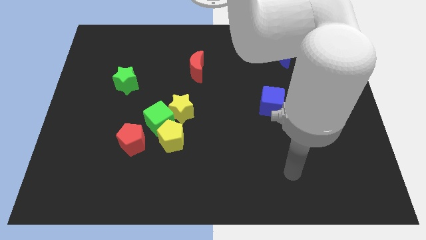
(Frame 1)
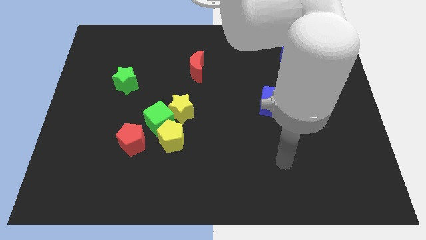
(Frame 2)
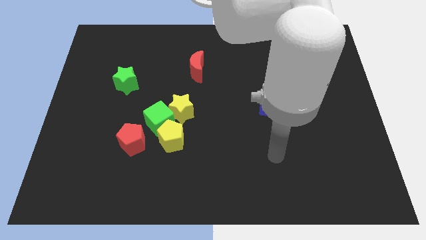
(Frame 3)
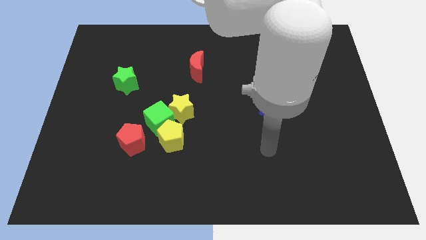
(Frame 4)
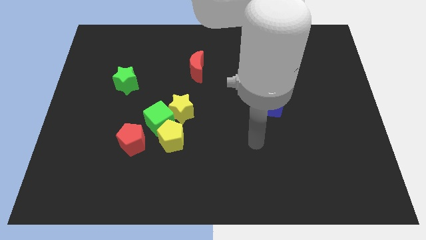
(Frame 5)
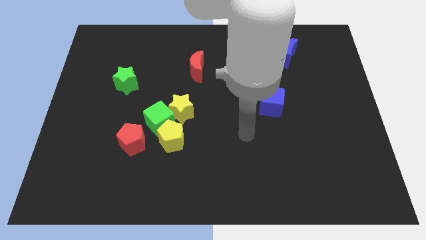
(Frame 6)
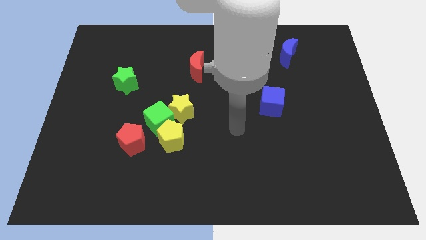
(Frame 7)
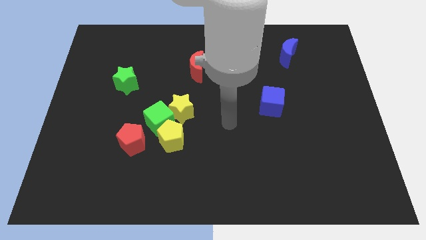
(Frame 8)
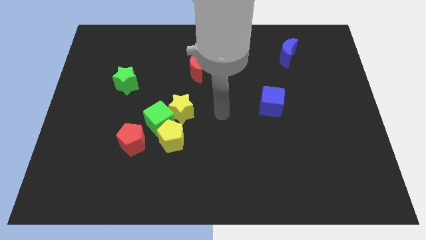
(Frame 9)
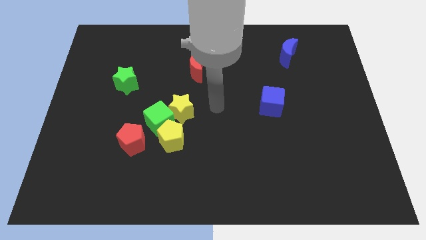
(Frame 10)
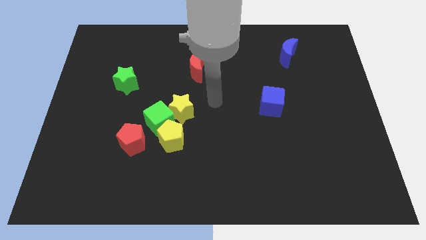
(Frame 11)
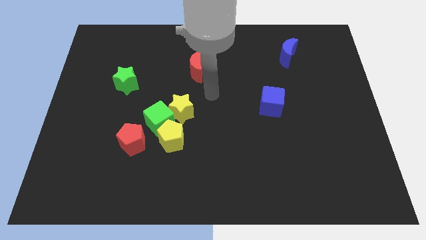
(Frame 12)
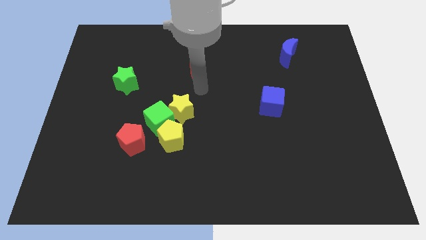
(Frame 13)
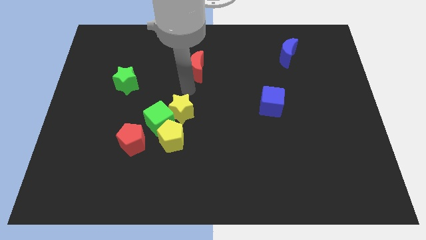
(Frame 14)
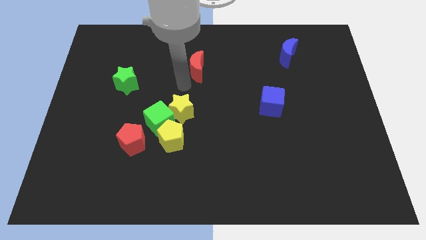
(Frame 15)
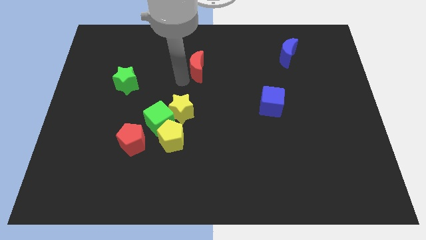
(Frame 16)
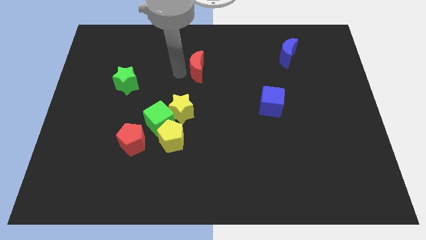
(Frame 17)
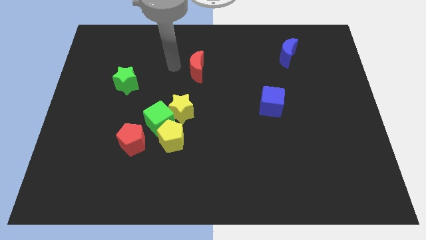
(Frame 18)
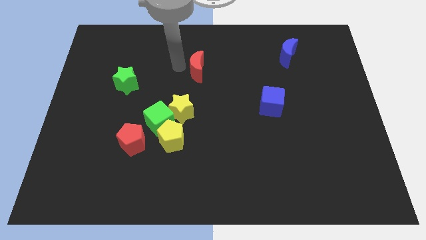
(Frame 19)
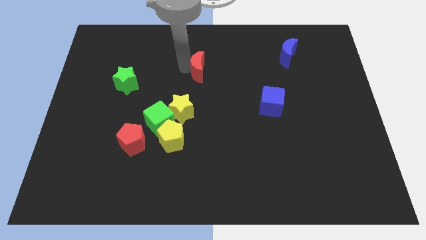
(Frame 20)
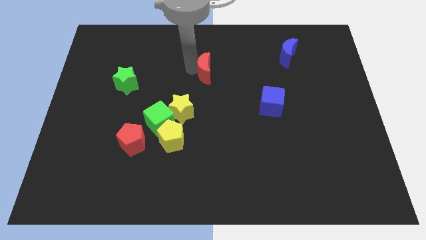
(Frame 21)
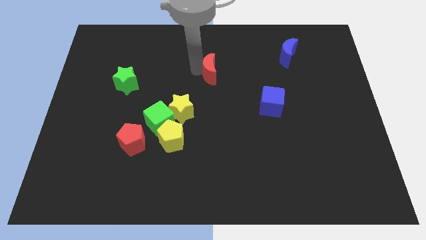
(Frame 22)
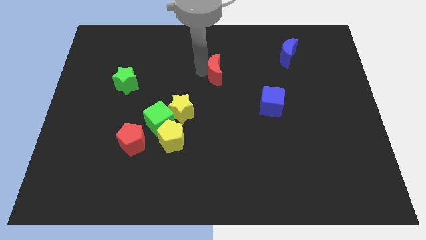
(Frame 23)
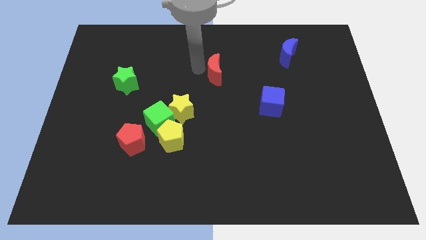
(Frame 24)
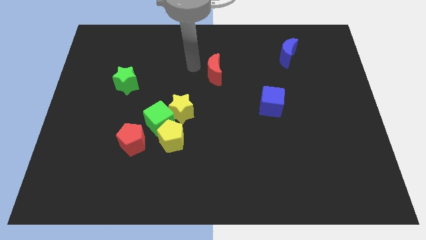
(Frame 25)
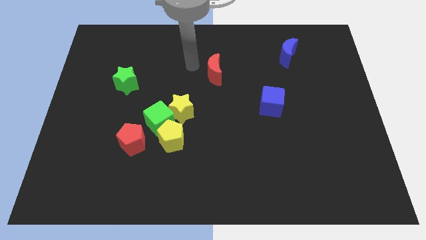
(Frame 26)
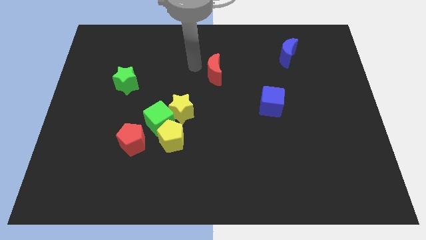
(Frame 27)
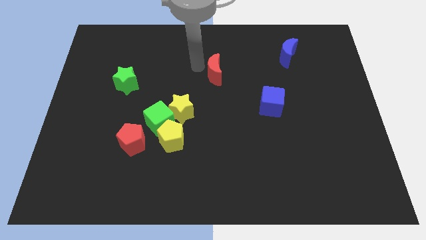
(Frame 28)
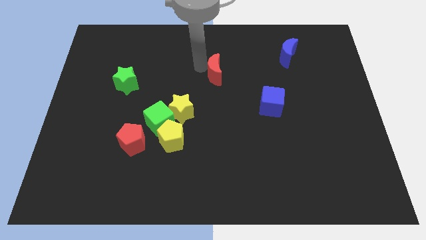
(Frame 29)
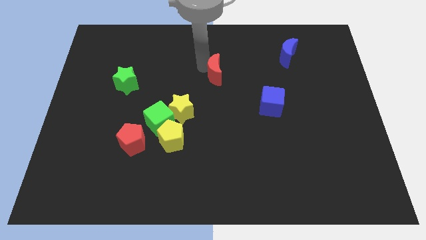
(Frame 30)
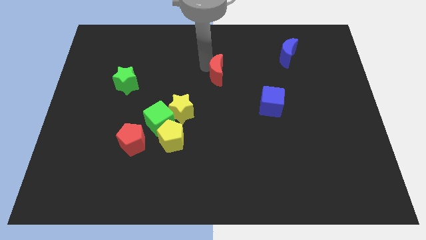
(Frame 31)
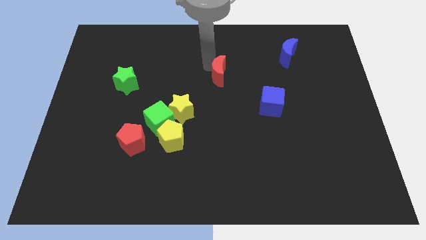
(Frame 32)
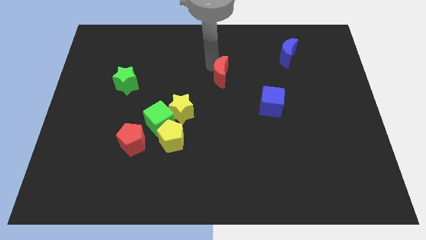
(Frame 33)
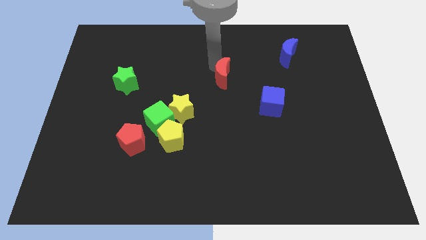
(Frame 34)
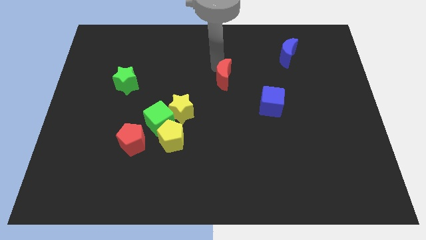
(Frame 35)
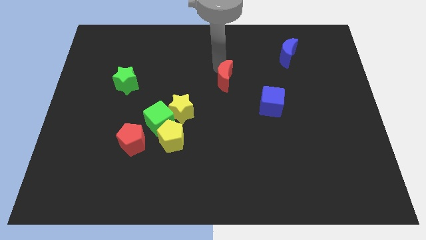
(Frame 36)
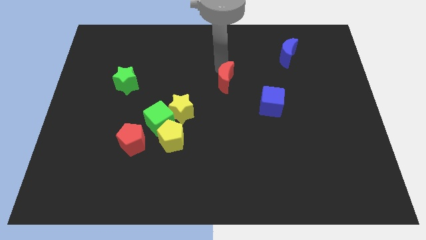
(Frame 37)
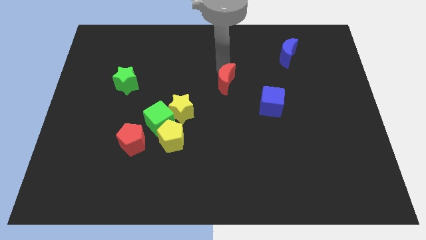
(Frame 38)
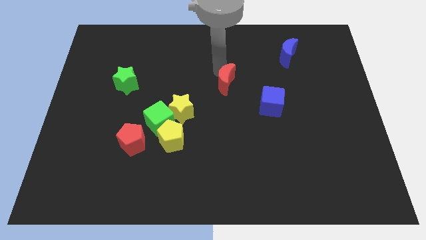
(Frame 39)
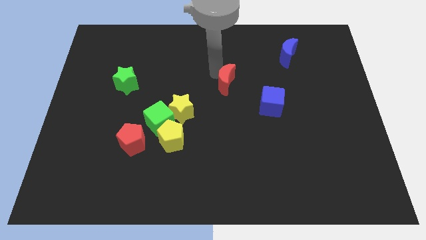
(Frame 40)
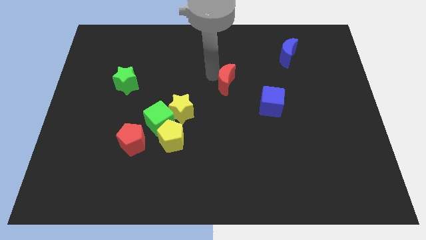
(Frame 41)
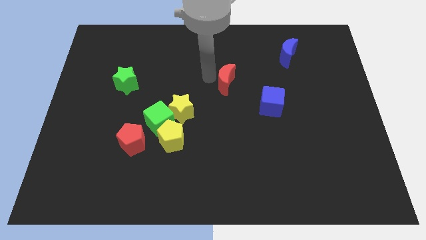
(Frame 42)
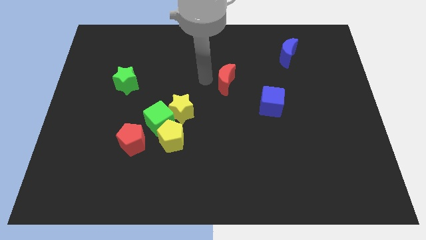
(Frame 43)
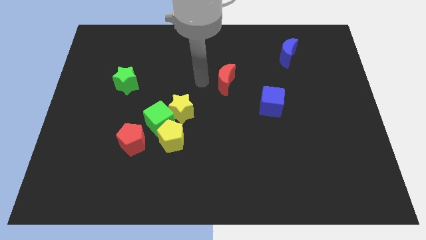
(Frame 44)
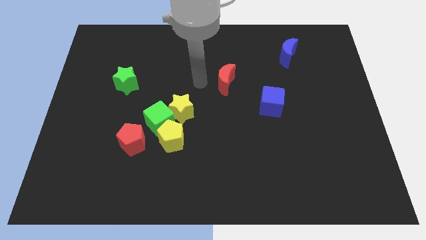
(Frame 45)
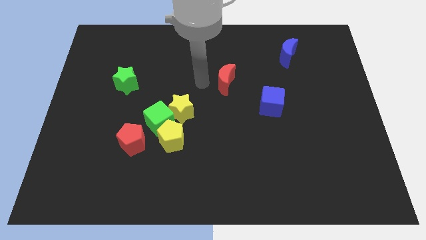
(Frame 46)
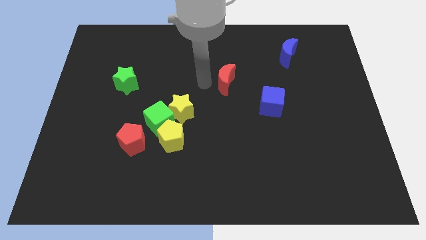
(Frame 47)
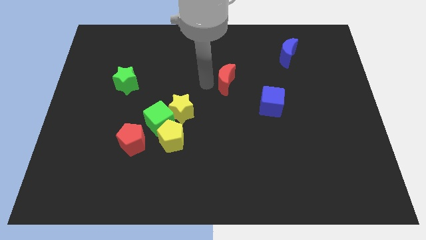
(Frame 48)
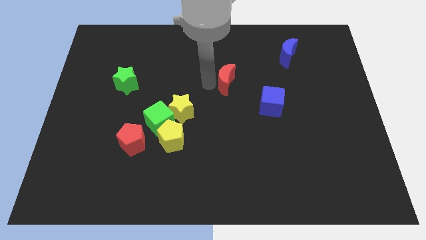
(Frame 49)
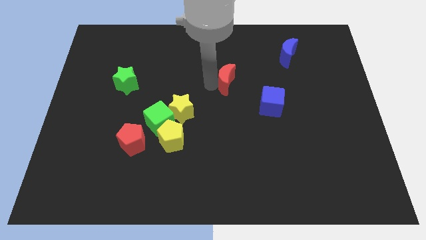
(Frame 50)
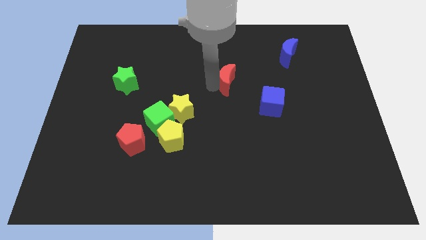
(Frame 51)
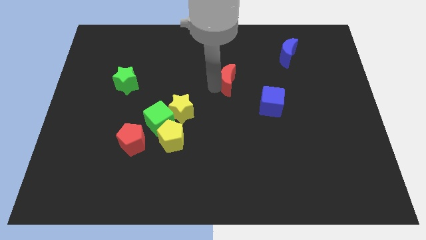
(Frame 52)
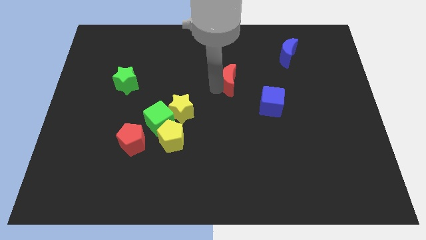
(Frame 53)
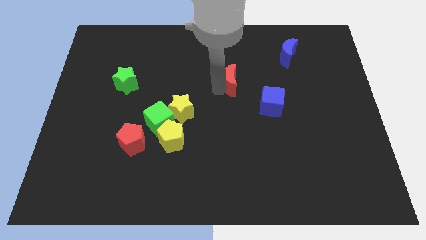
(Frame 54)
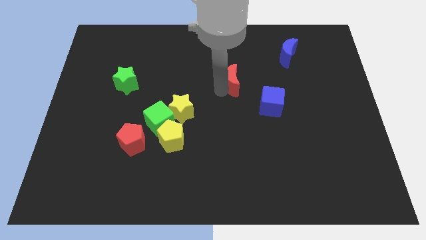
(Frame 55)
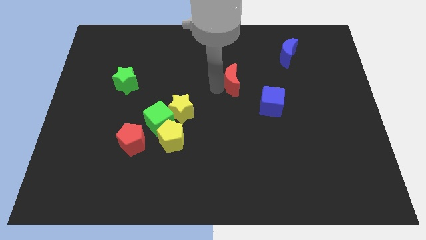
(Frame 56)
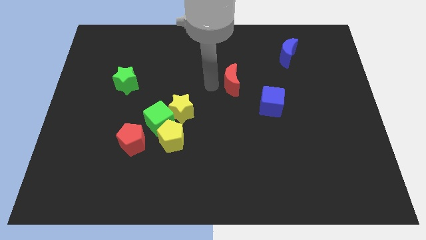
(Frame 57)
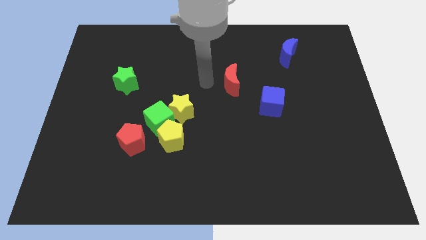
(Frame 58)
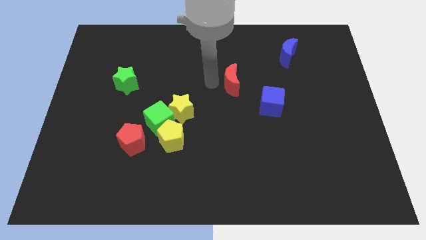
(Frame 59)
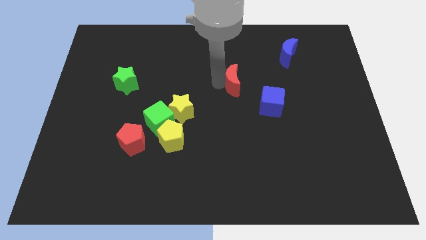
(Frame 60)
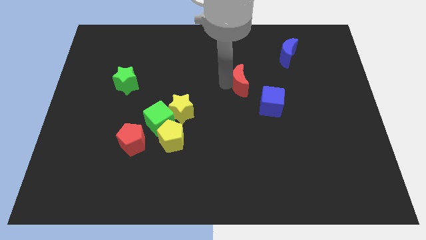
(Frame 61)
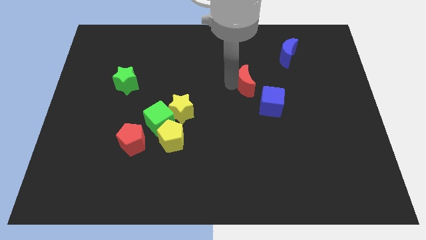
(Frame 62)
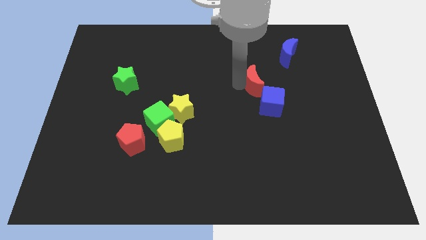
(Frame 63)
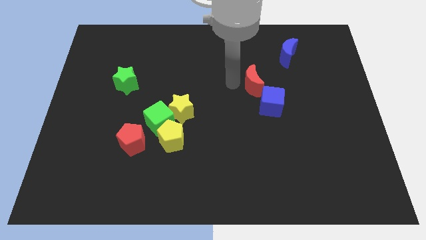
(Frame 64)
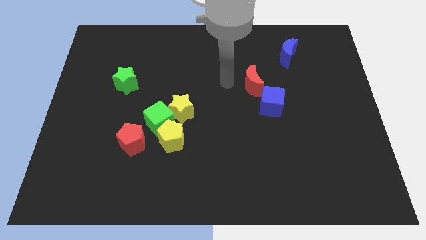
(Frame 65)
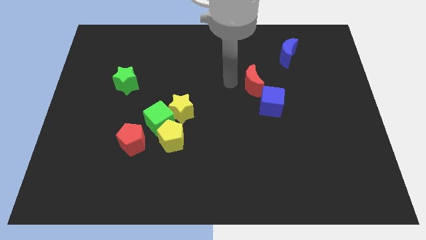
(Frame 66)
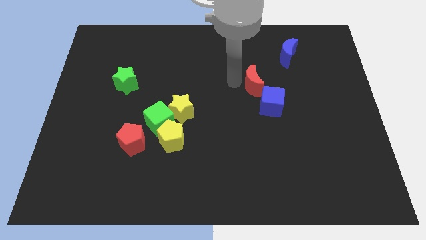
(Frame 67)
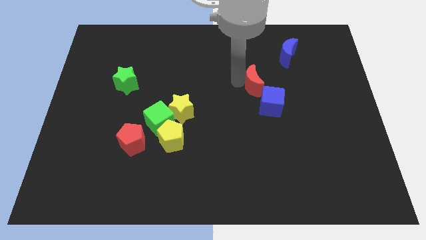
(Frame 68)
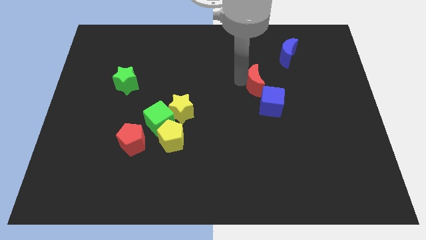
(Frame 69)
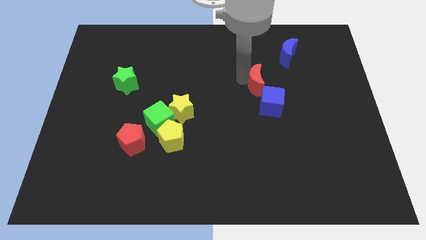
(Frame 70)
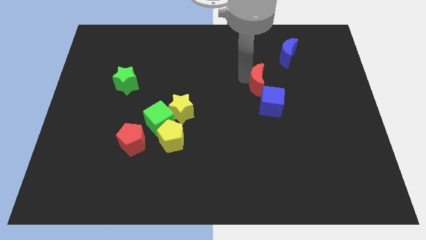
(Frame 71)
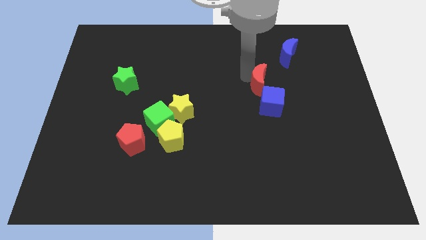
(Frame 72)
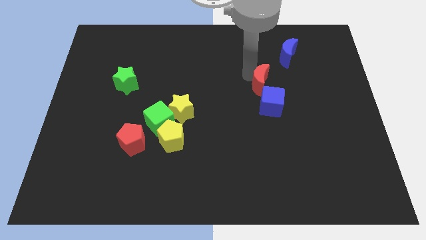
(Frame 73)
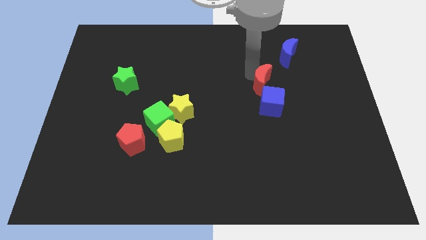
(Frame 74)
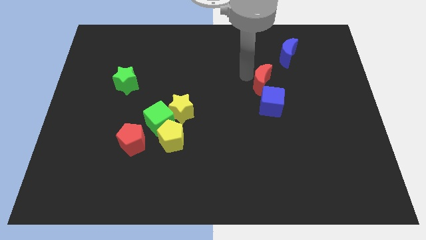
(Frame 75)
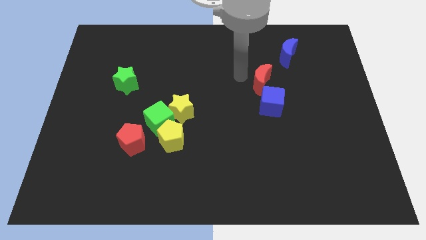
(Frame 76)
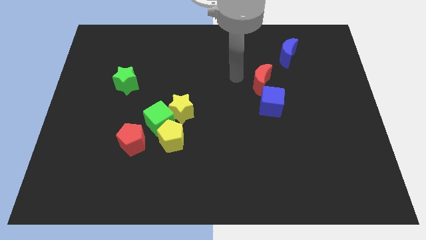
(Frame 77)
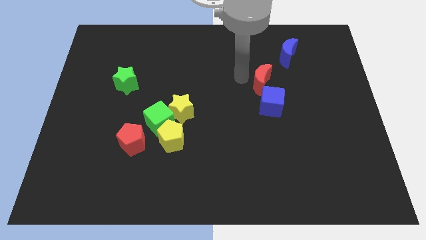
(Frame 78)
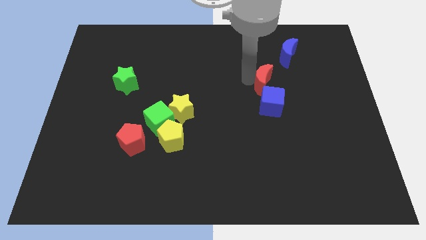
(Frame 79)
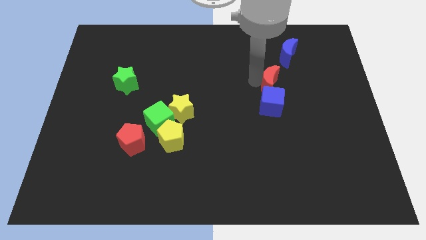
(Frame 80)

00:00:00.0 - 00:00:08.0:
push the red moon to the top right side of the blue cube
